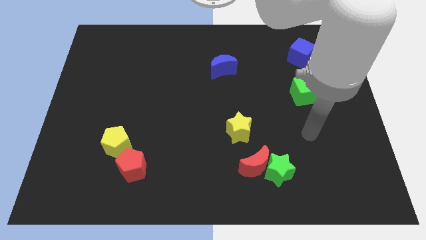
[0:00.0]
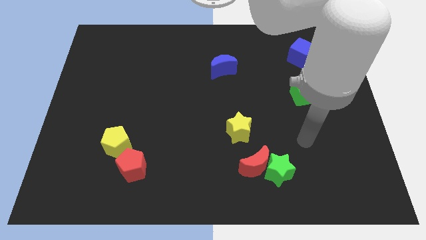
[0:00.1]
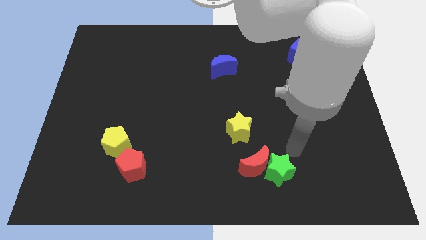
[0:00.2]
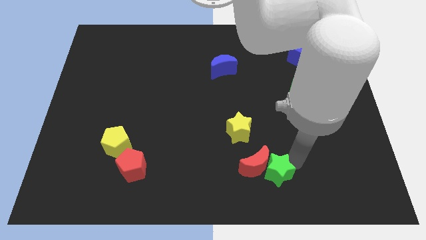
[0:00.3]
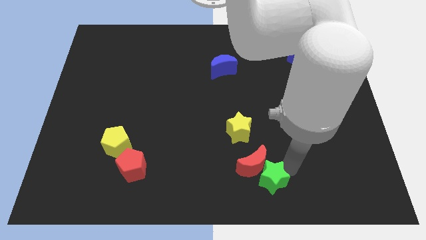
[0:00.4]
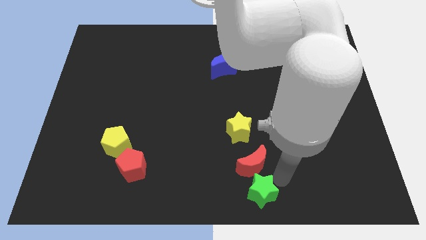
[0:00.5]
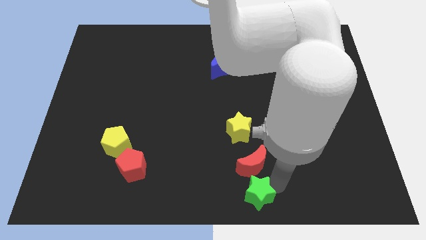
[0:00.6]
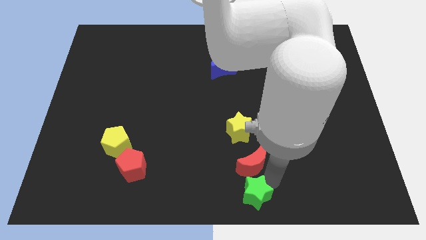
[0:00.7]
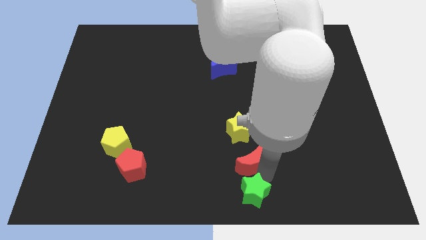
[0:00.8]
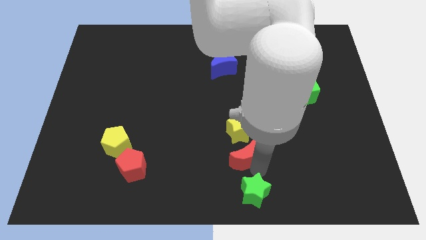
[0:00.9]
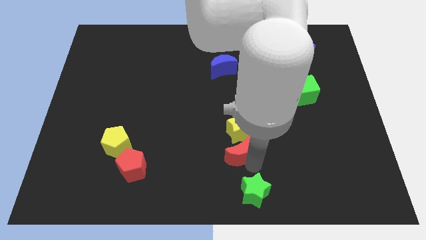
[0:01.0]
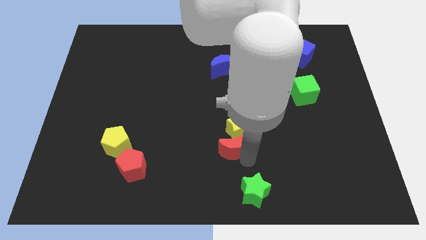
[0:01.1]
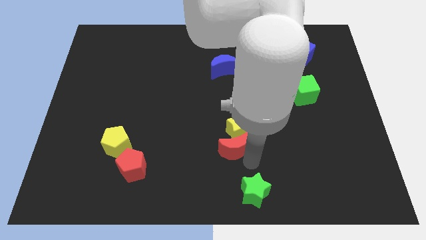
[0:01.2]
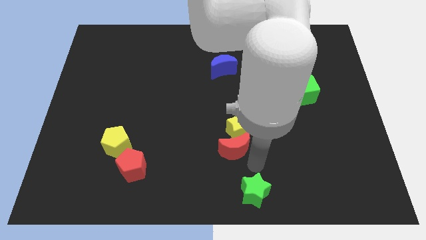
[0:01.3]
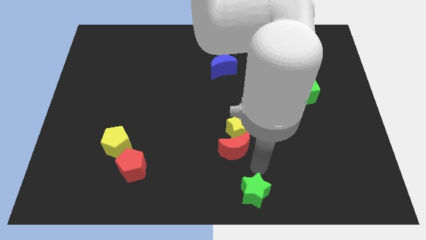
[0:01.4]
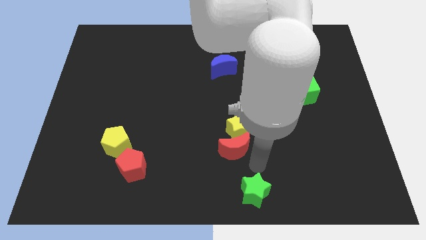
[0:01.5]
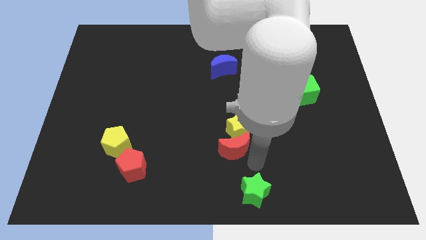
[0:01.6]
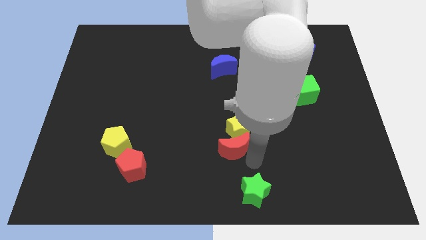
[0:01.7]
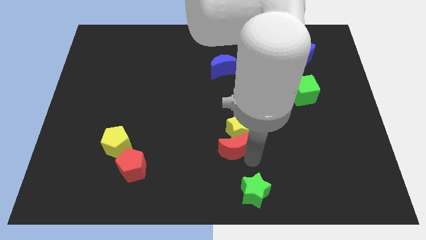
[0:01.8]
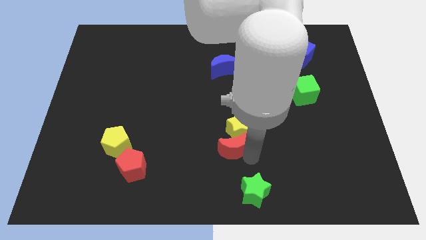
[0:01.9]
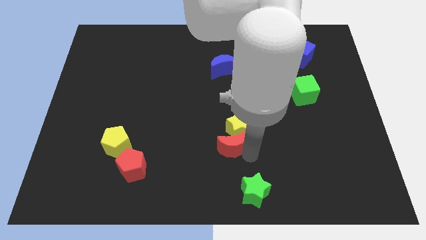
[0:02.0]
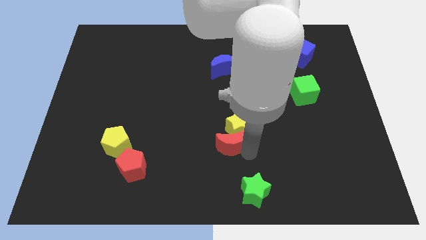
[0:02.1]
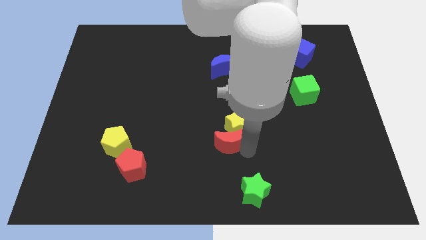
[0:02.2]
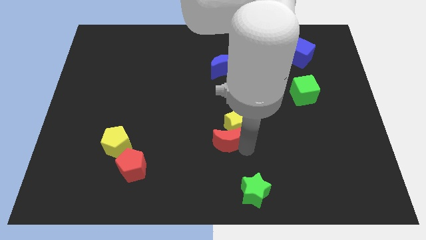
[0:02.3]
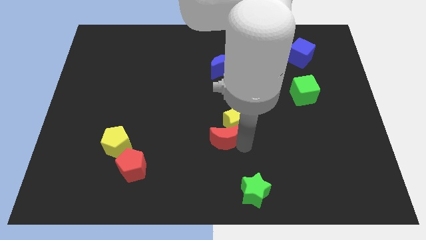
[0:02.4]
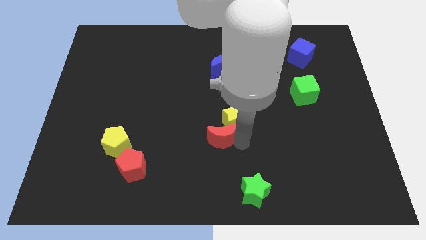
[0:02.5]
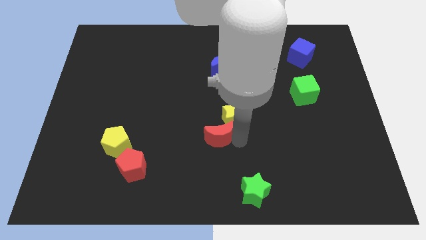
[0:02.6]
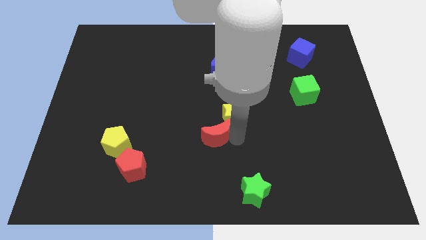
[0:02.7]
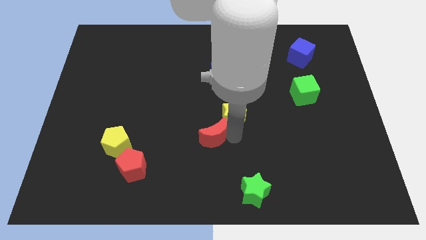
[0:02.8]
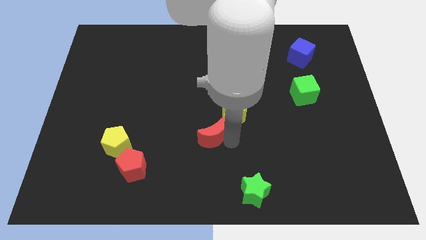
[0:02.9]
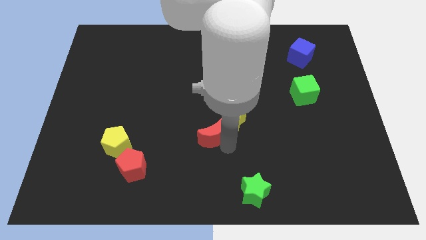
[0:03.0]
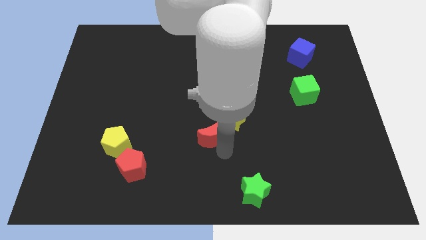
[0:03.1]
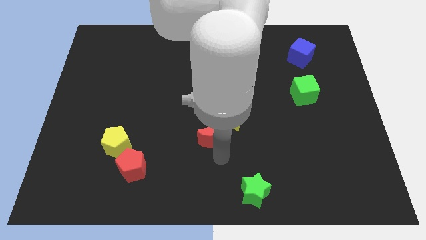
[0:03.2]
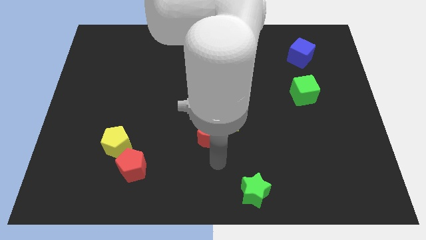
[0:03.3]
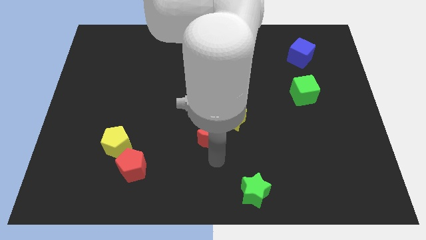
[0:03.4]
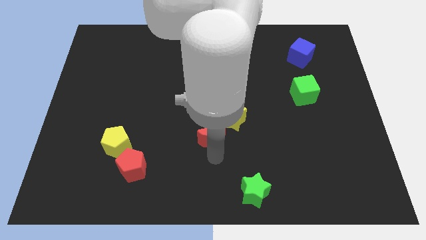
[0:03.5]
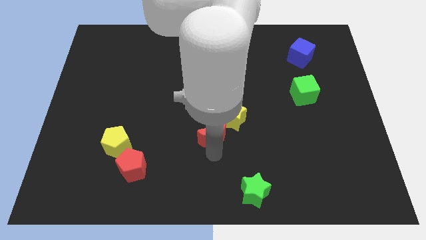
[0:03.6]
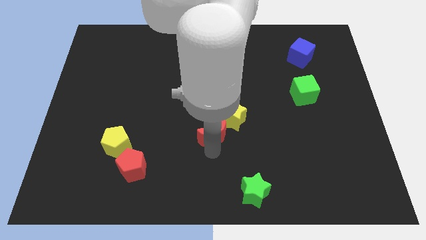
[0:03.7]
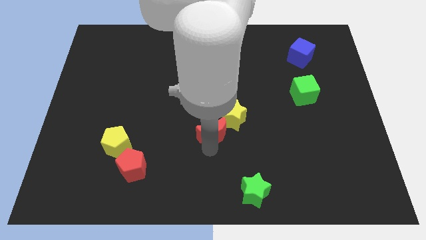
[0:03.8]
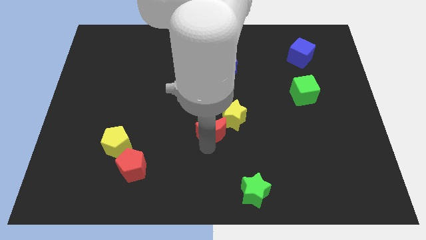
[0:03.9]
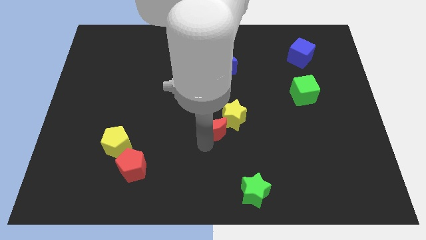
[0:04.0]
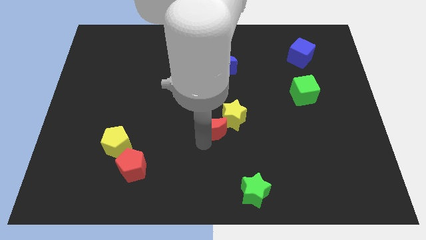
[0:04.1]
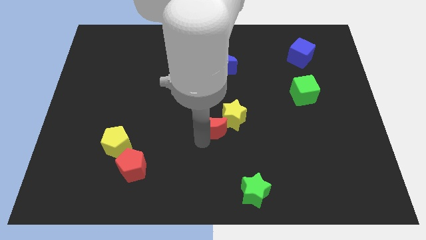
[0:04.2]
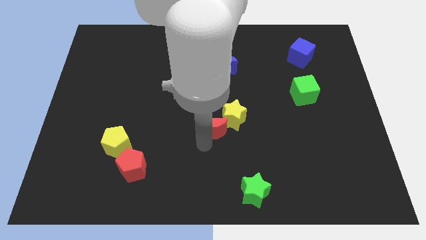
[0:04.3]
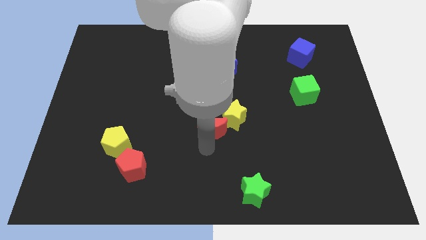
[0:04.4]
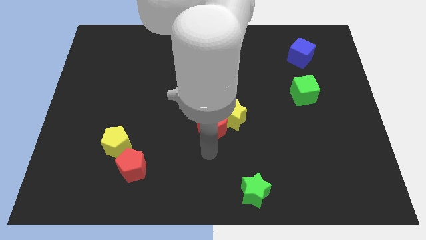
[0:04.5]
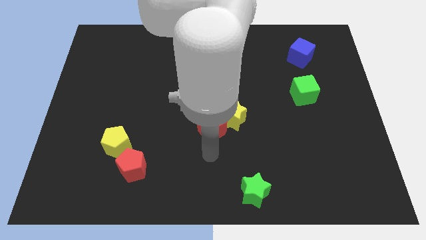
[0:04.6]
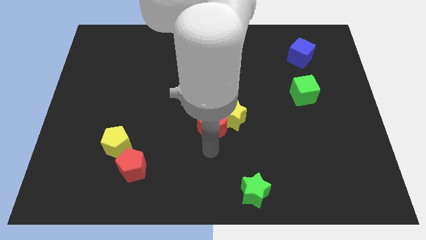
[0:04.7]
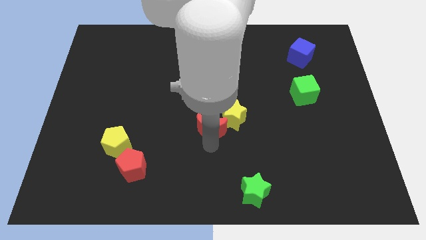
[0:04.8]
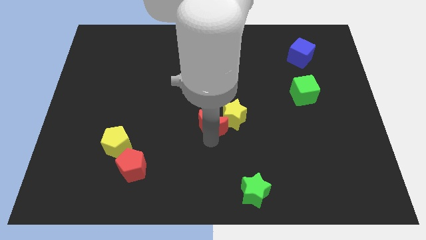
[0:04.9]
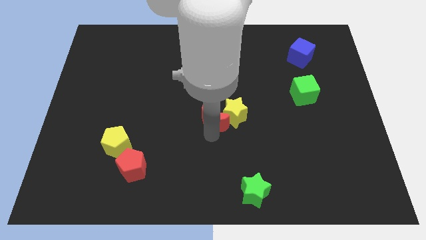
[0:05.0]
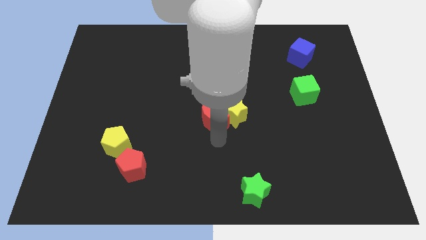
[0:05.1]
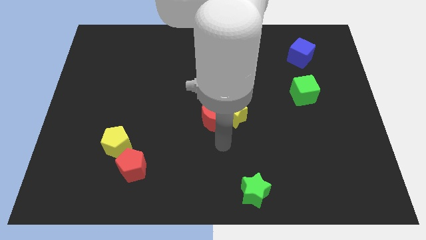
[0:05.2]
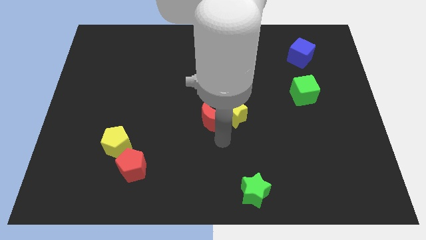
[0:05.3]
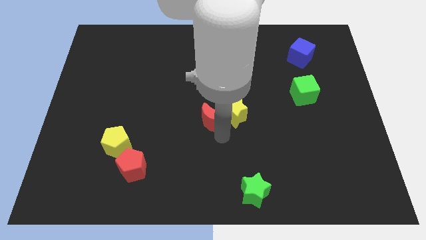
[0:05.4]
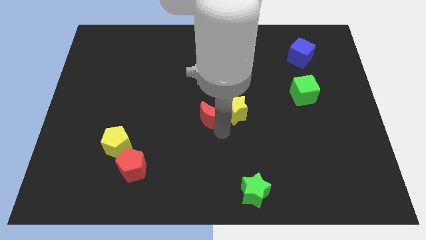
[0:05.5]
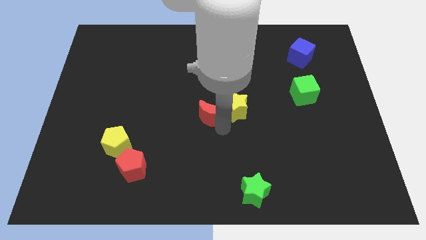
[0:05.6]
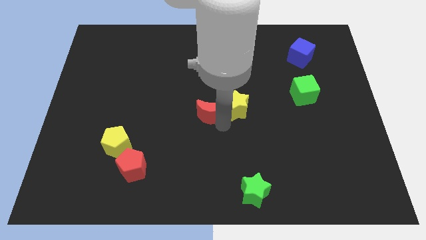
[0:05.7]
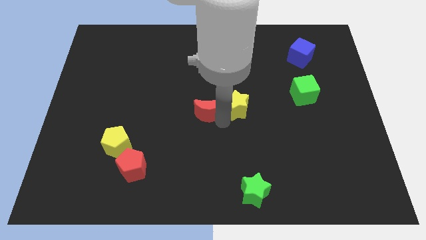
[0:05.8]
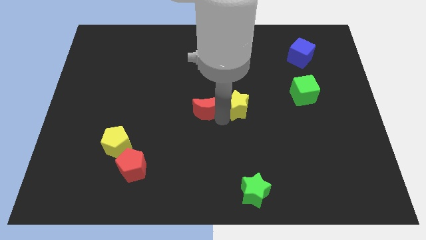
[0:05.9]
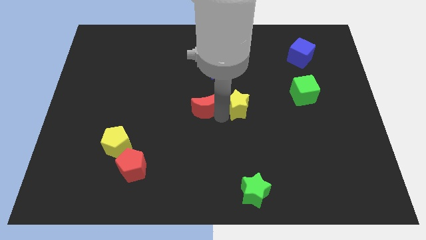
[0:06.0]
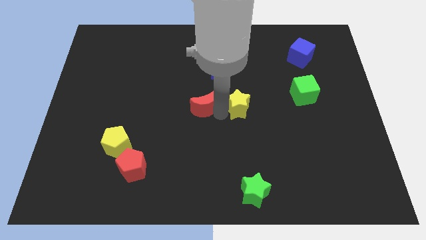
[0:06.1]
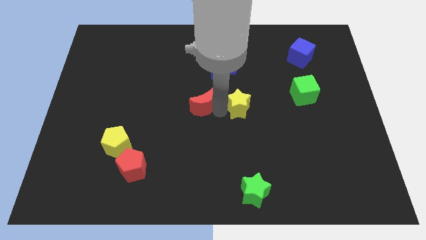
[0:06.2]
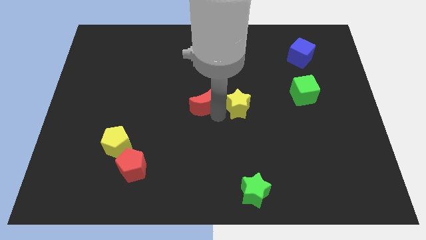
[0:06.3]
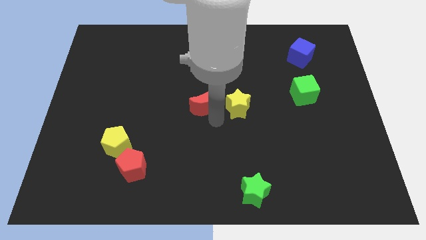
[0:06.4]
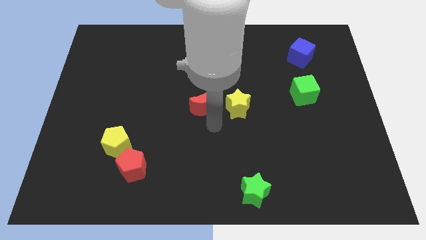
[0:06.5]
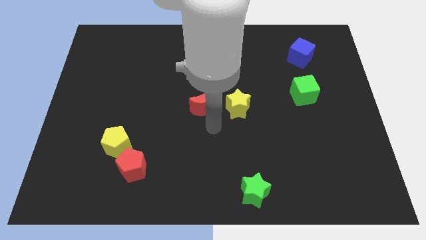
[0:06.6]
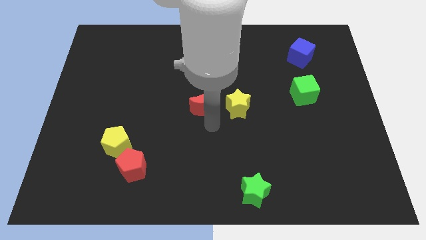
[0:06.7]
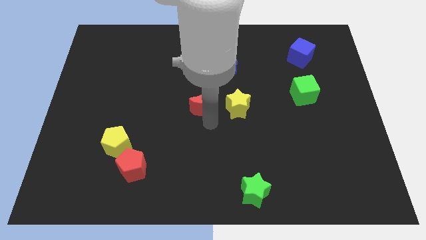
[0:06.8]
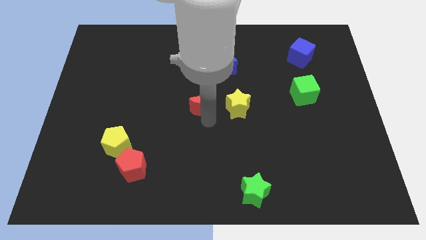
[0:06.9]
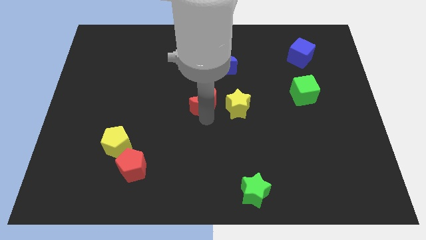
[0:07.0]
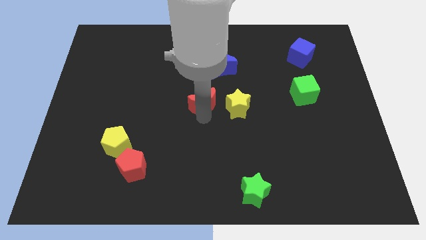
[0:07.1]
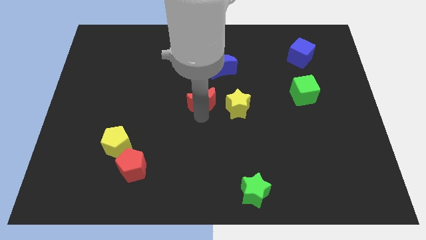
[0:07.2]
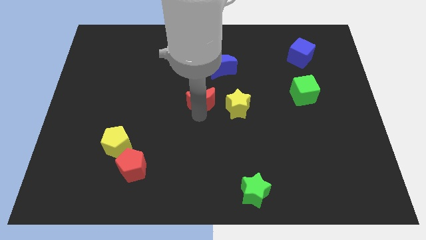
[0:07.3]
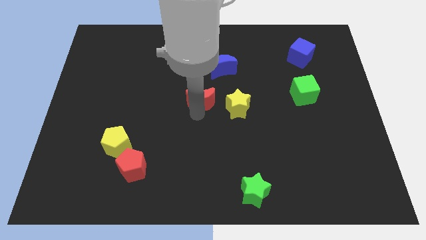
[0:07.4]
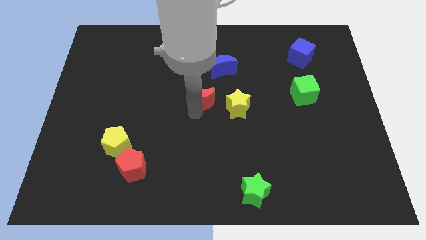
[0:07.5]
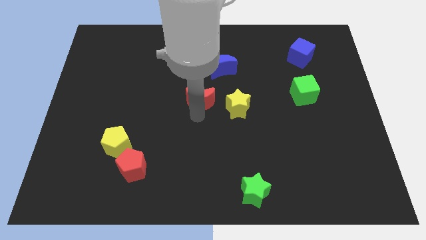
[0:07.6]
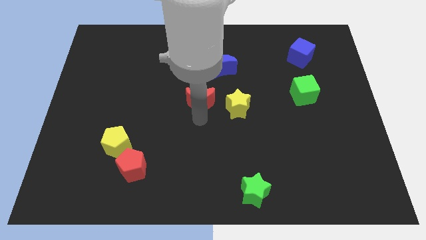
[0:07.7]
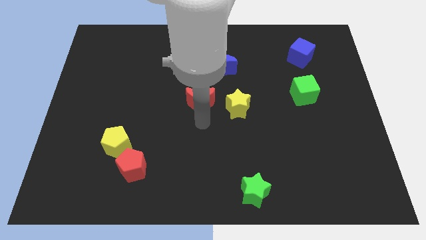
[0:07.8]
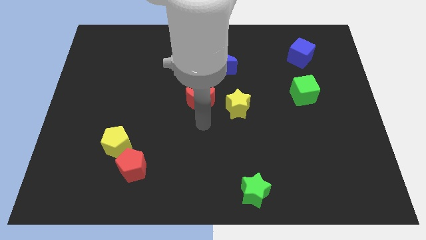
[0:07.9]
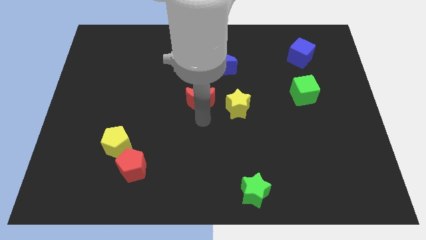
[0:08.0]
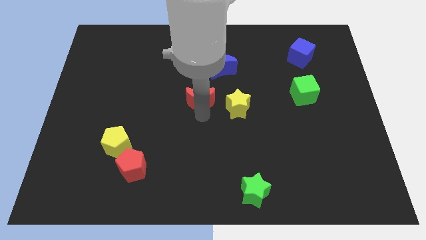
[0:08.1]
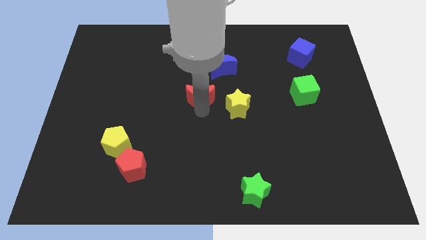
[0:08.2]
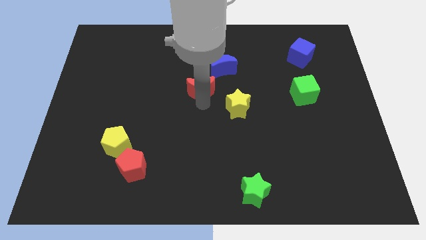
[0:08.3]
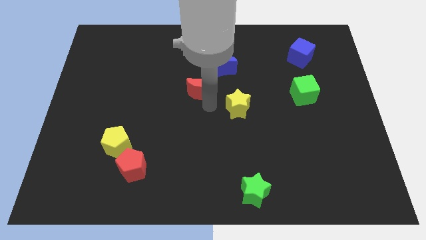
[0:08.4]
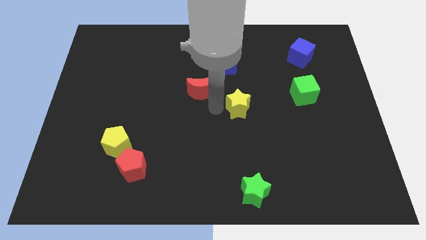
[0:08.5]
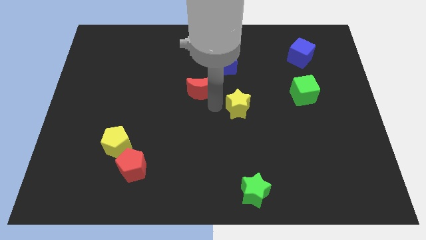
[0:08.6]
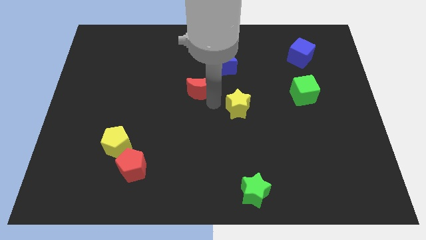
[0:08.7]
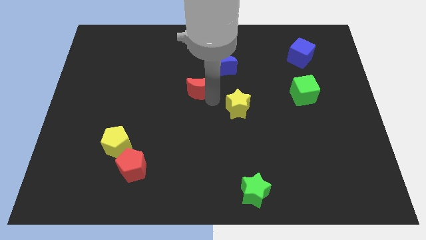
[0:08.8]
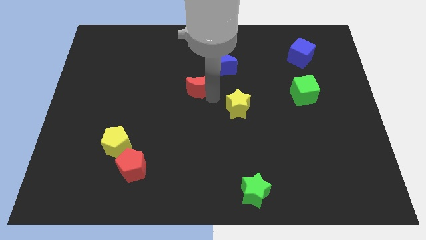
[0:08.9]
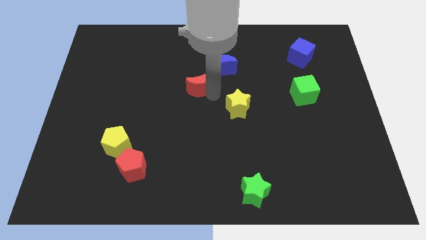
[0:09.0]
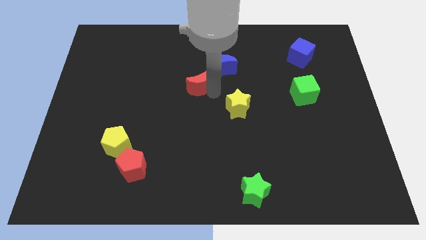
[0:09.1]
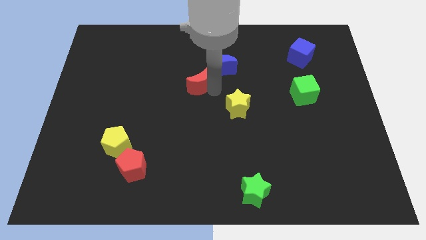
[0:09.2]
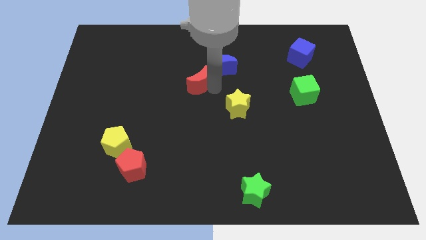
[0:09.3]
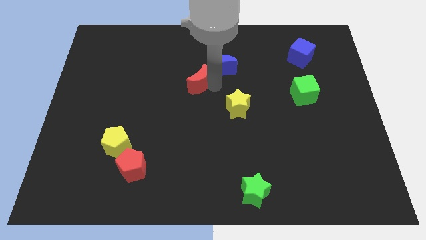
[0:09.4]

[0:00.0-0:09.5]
put the red moon to the left side of the blue moon
